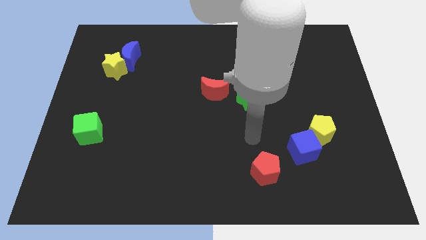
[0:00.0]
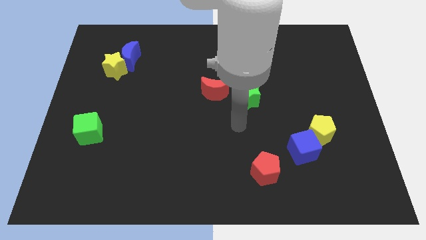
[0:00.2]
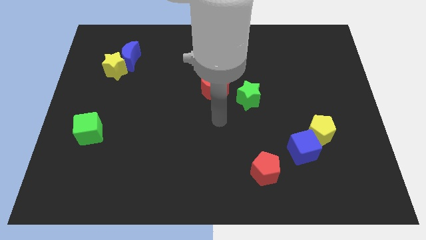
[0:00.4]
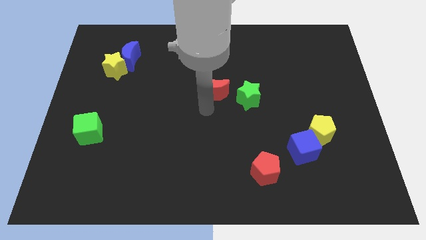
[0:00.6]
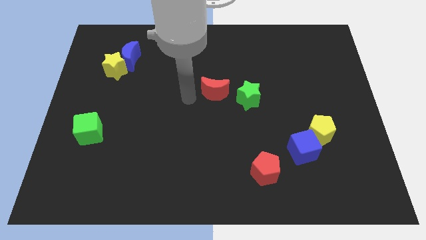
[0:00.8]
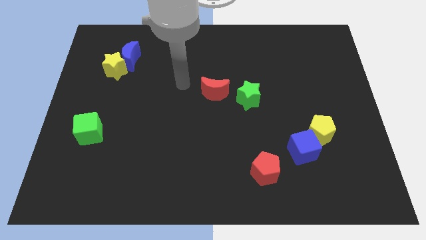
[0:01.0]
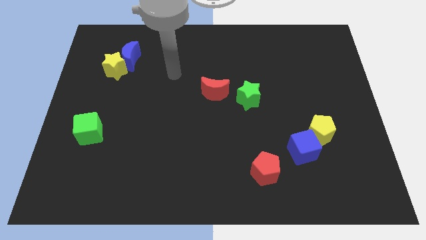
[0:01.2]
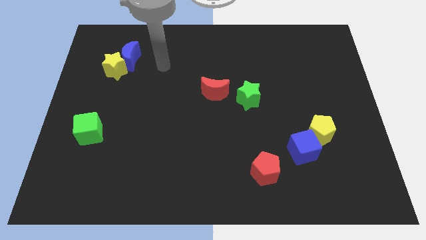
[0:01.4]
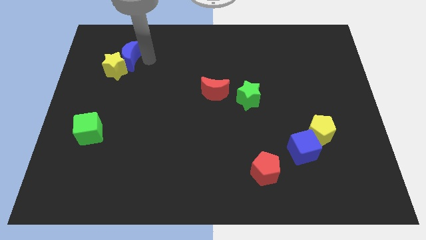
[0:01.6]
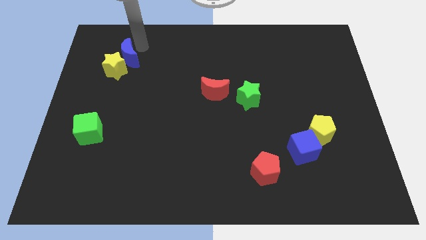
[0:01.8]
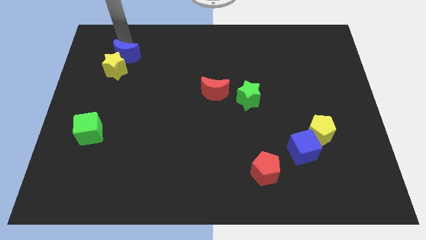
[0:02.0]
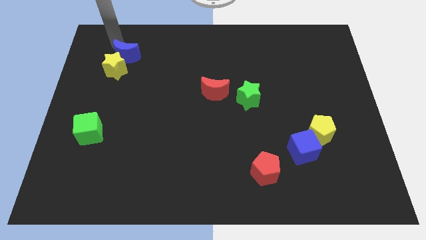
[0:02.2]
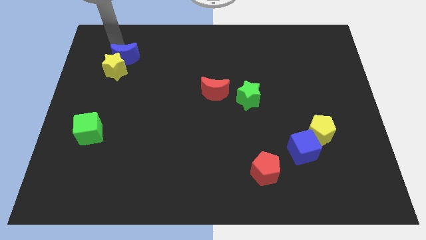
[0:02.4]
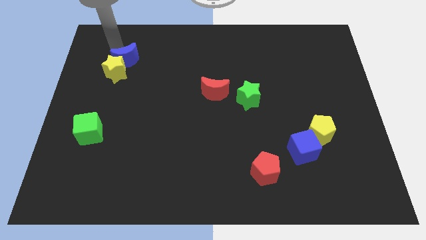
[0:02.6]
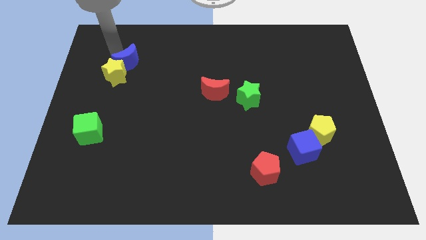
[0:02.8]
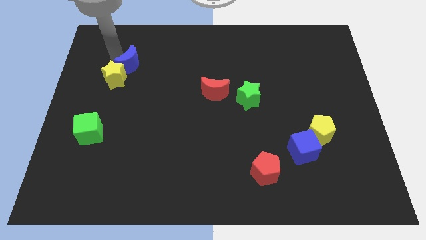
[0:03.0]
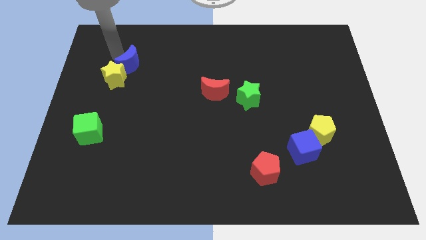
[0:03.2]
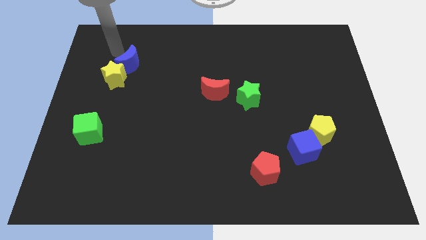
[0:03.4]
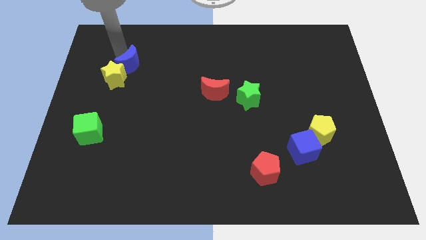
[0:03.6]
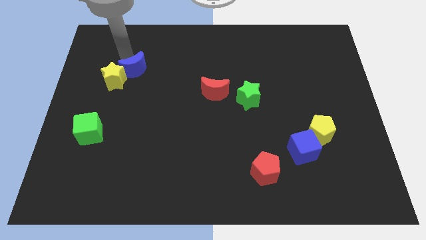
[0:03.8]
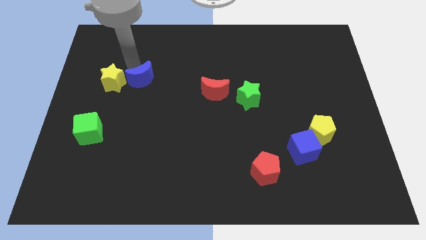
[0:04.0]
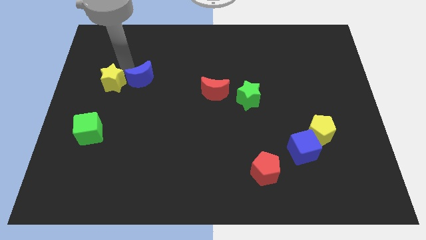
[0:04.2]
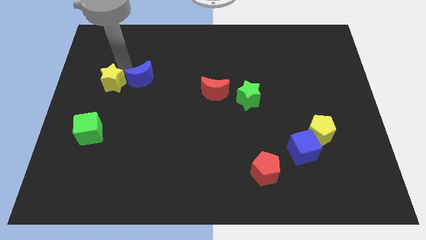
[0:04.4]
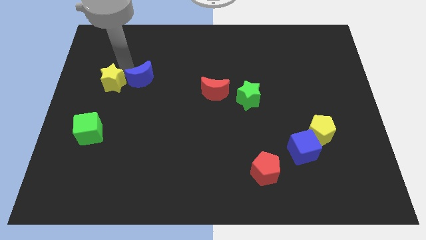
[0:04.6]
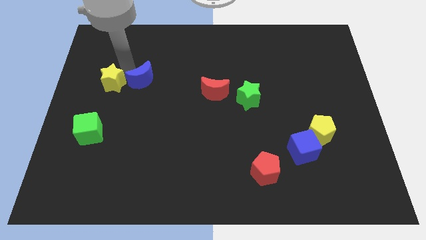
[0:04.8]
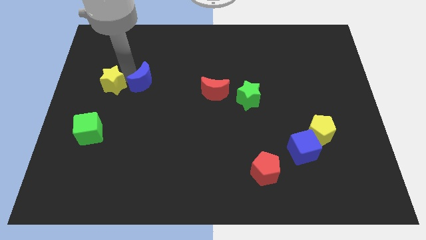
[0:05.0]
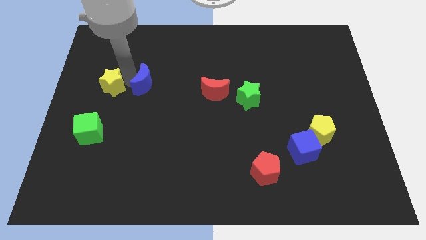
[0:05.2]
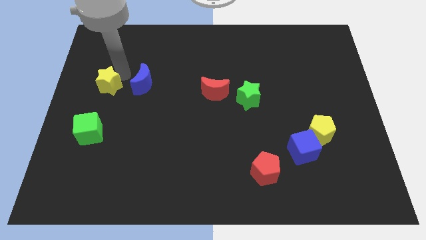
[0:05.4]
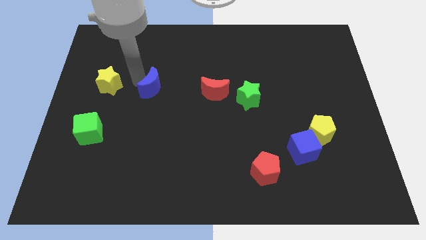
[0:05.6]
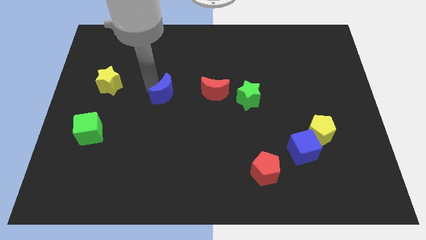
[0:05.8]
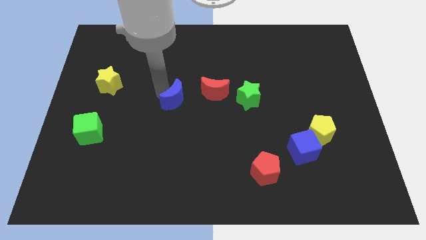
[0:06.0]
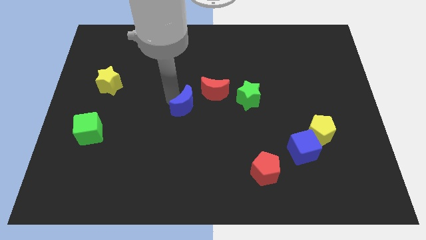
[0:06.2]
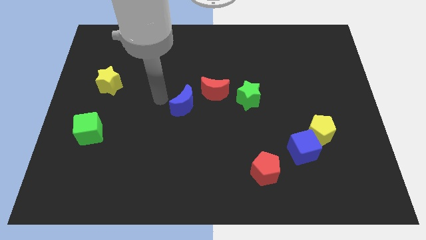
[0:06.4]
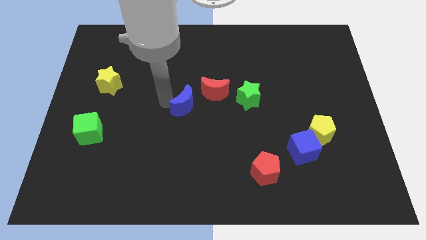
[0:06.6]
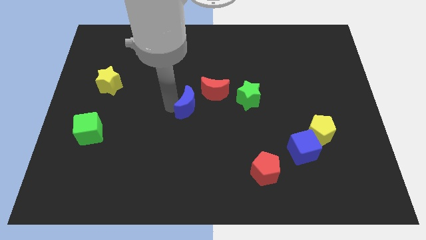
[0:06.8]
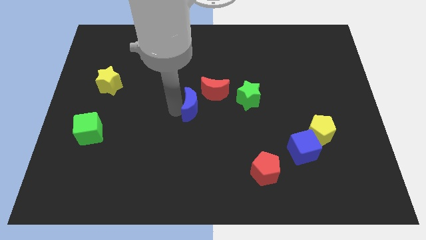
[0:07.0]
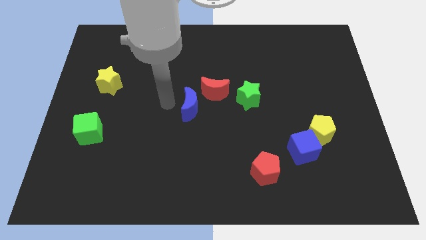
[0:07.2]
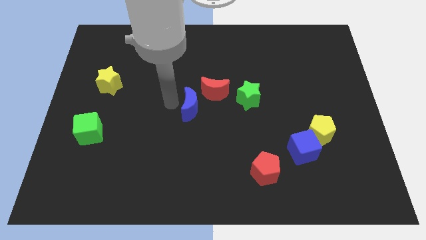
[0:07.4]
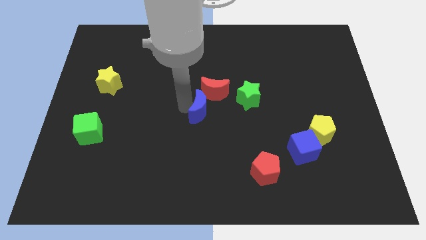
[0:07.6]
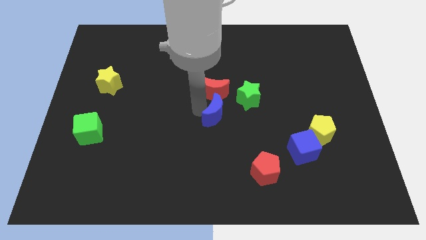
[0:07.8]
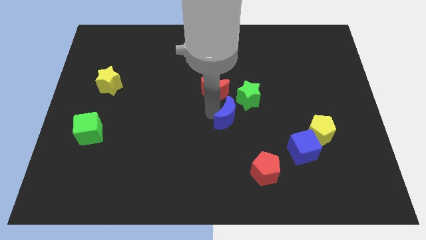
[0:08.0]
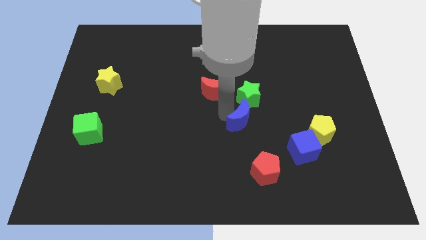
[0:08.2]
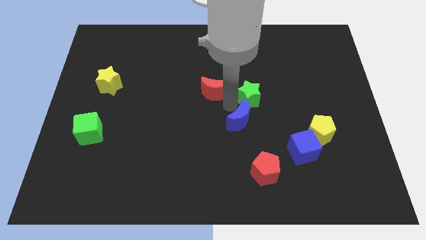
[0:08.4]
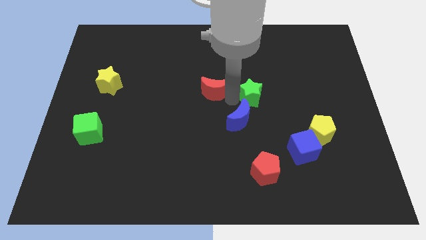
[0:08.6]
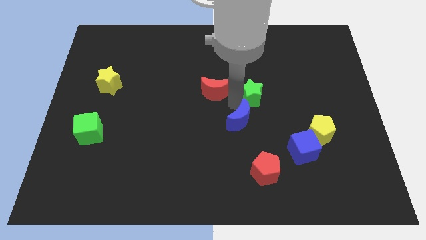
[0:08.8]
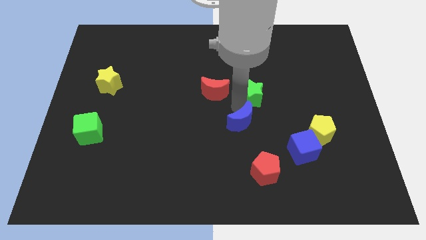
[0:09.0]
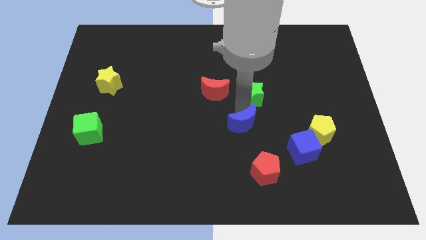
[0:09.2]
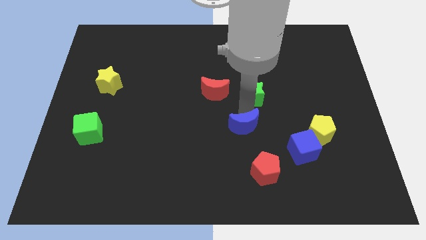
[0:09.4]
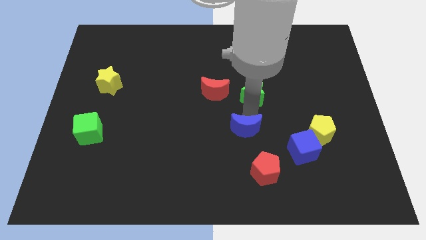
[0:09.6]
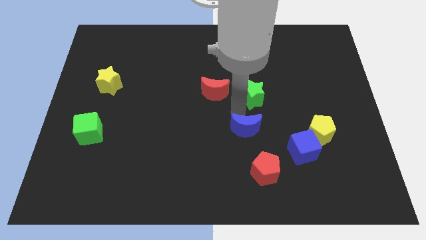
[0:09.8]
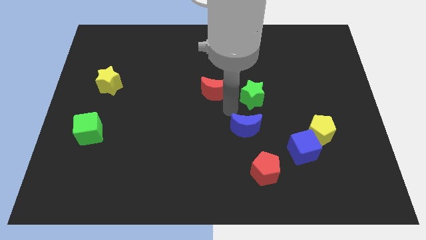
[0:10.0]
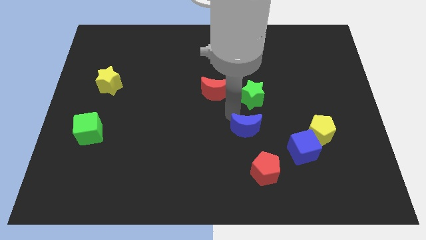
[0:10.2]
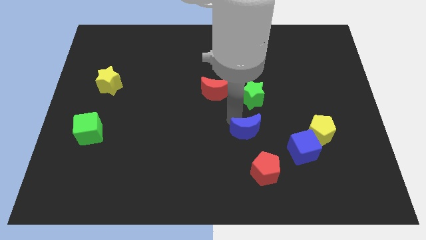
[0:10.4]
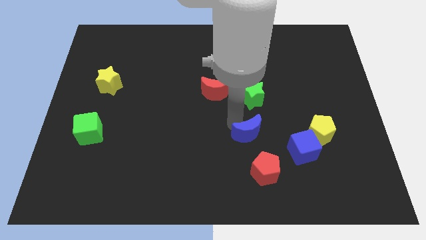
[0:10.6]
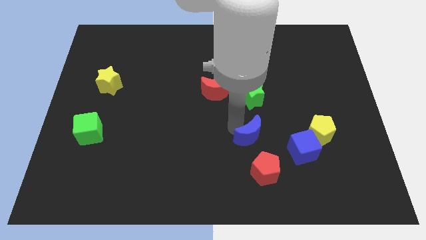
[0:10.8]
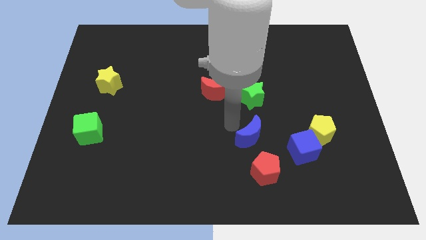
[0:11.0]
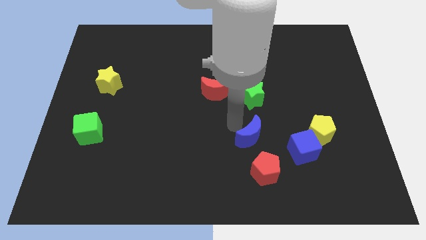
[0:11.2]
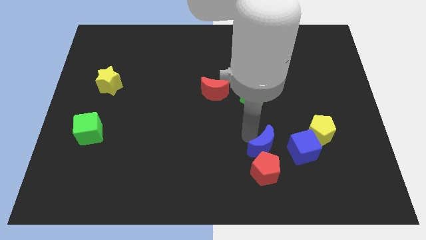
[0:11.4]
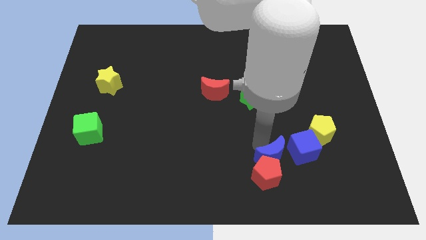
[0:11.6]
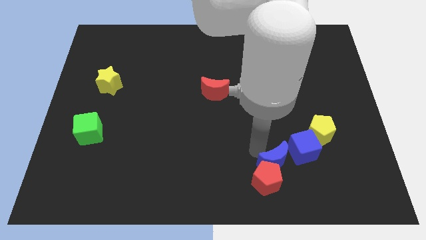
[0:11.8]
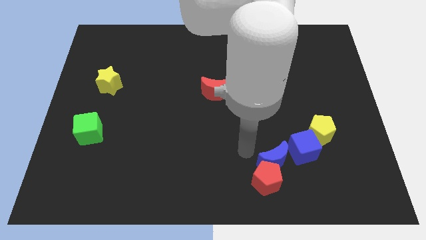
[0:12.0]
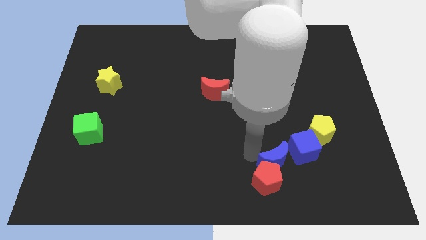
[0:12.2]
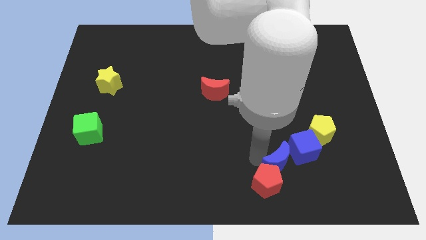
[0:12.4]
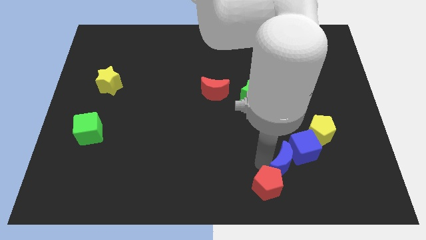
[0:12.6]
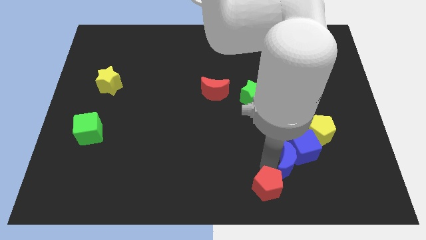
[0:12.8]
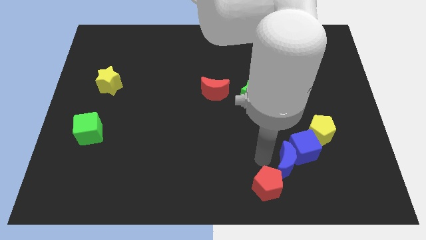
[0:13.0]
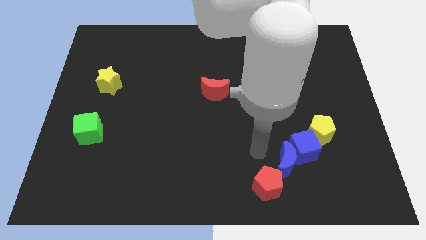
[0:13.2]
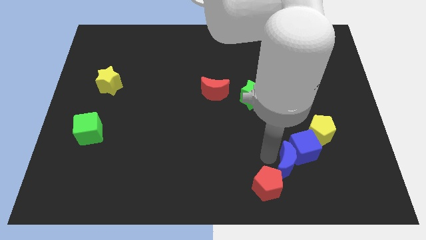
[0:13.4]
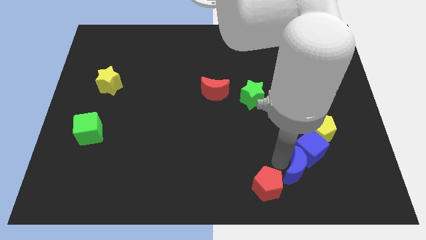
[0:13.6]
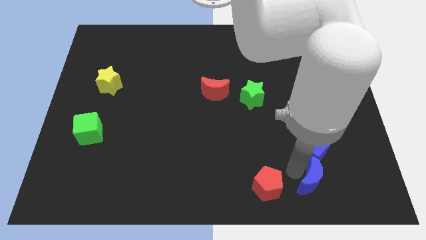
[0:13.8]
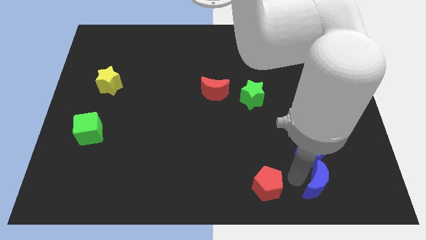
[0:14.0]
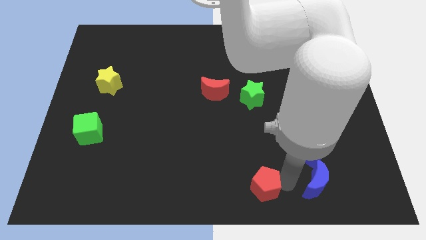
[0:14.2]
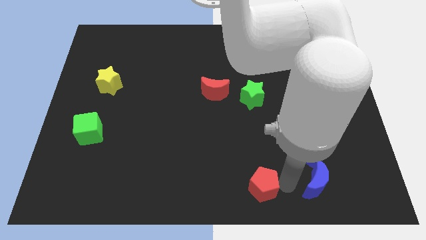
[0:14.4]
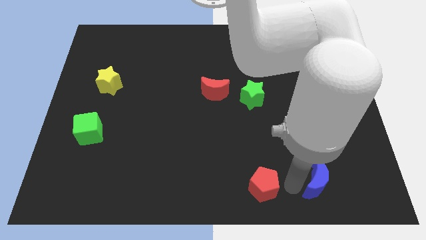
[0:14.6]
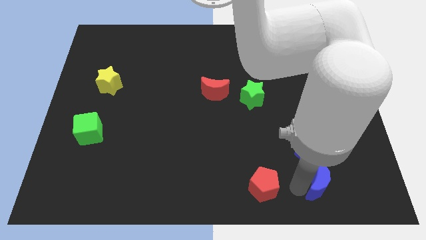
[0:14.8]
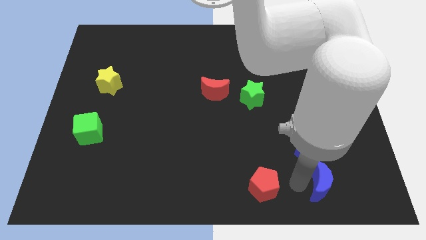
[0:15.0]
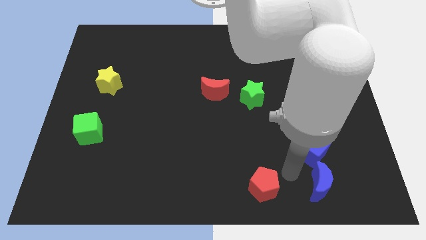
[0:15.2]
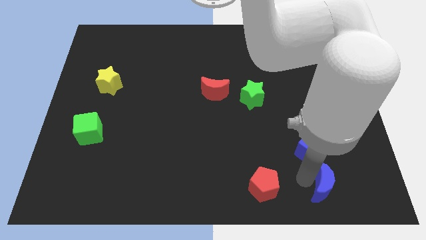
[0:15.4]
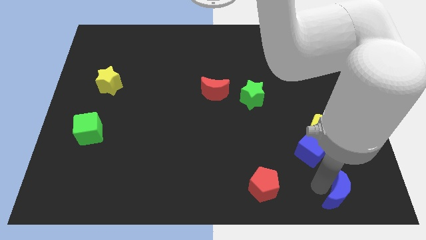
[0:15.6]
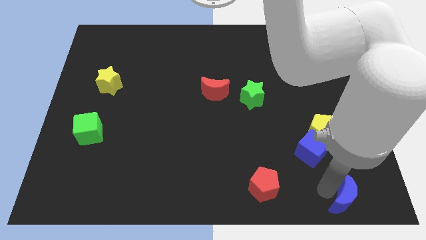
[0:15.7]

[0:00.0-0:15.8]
push the blue moon to the lower right corner
